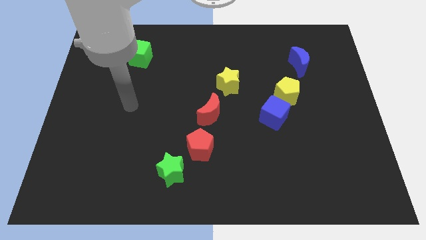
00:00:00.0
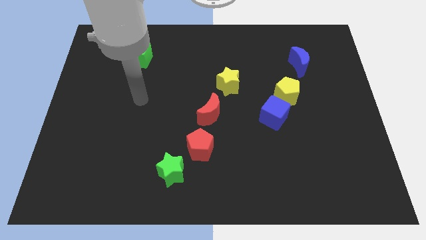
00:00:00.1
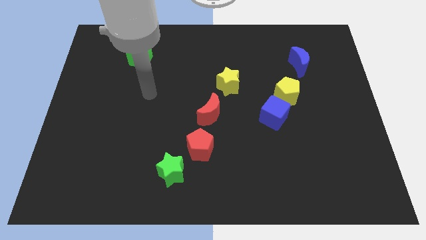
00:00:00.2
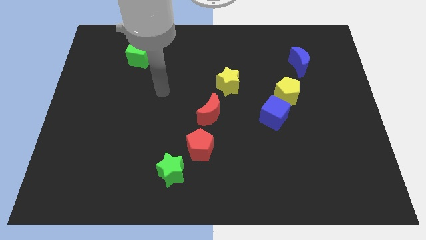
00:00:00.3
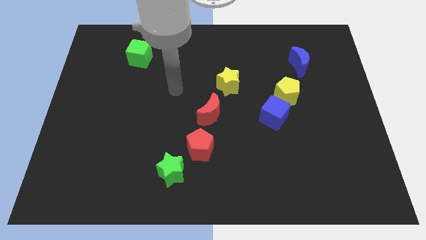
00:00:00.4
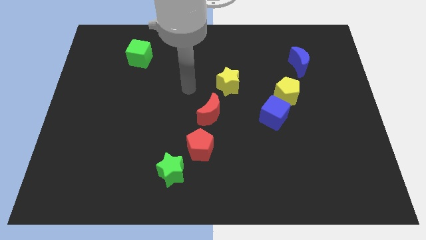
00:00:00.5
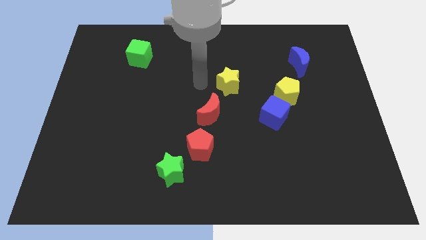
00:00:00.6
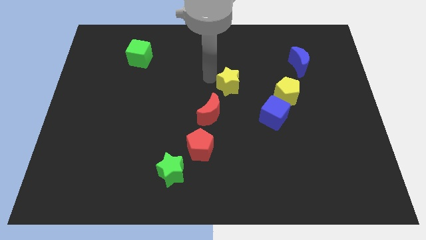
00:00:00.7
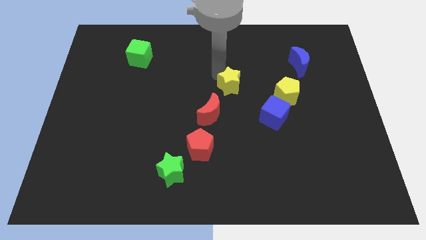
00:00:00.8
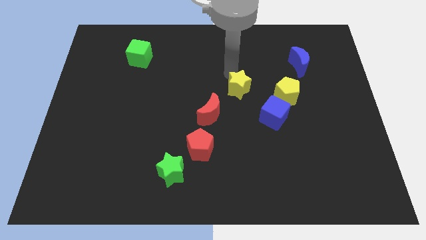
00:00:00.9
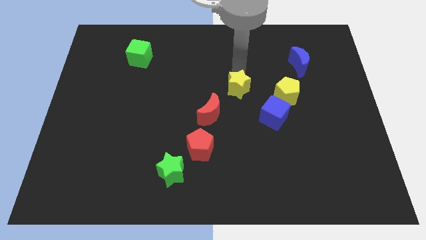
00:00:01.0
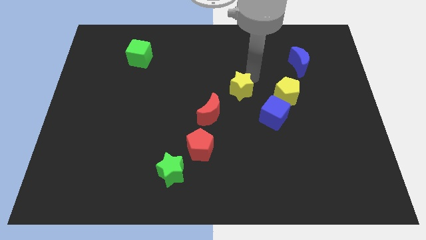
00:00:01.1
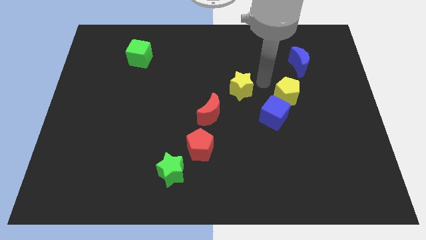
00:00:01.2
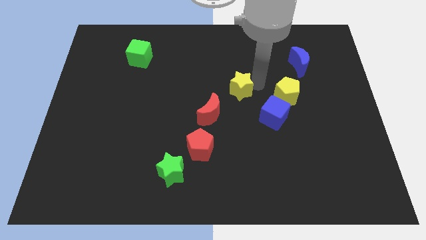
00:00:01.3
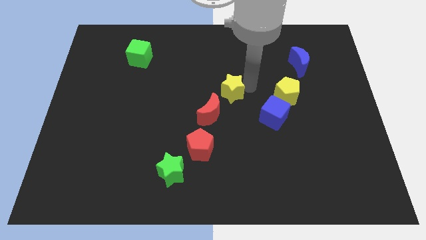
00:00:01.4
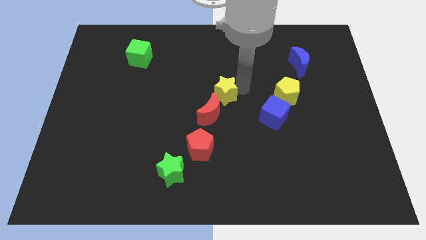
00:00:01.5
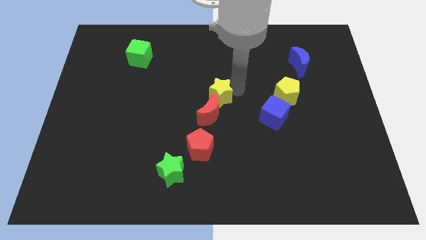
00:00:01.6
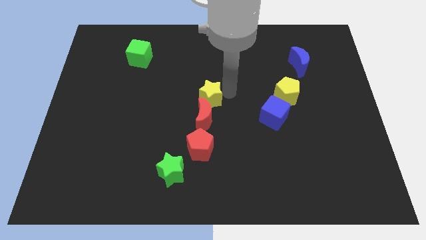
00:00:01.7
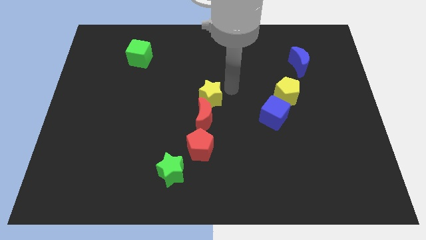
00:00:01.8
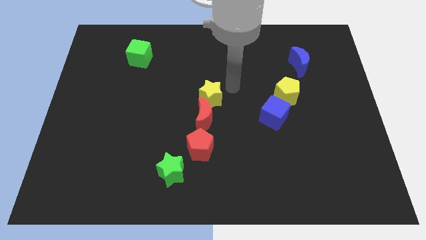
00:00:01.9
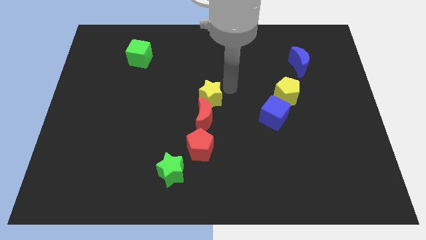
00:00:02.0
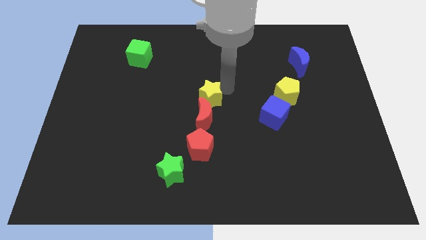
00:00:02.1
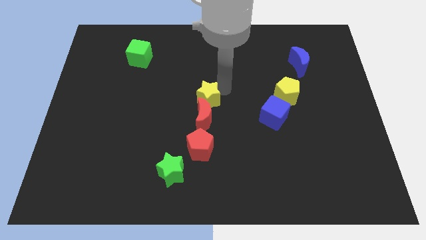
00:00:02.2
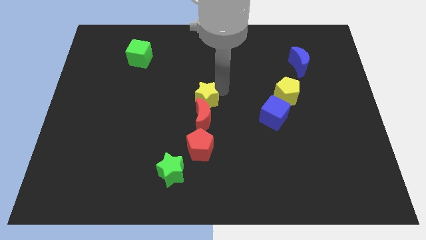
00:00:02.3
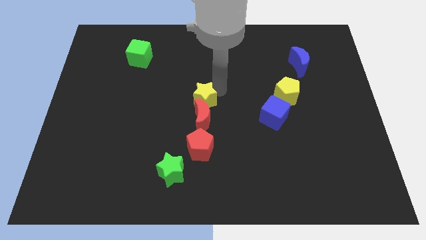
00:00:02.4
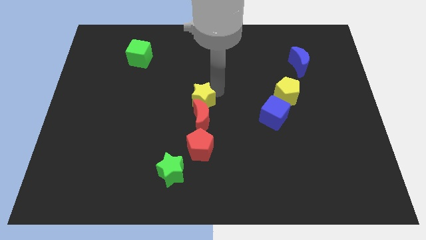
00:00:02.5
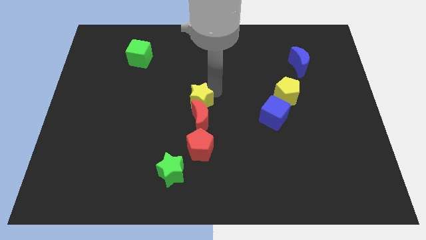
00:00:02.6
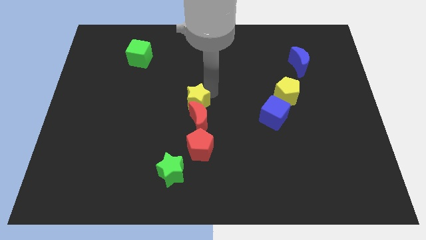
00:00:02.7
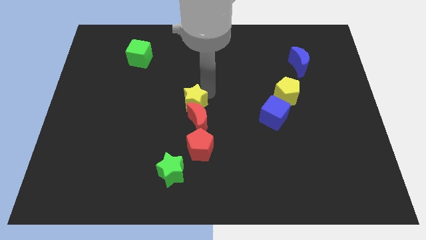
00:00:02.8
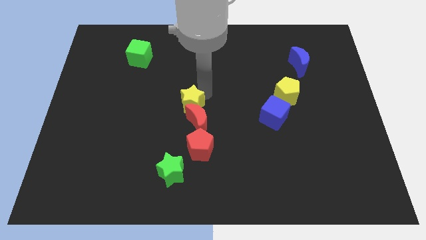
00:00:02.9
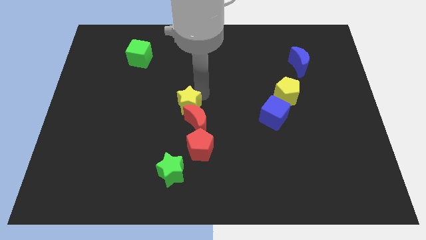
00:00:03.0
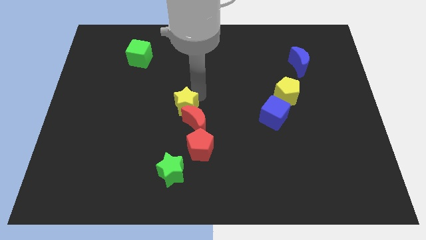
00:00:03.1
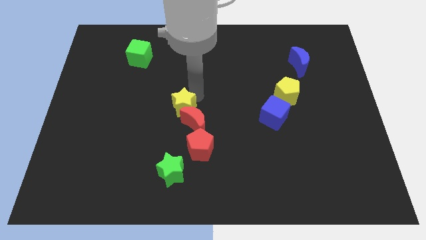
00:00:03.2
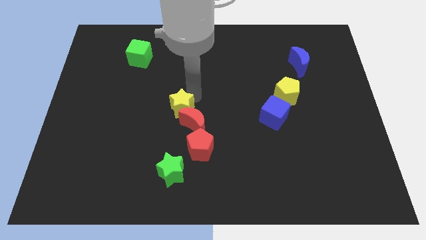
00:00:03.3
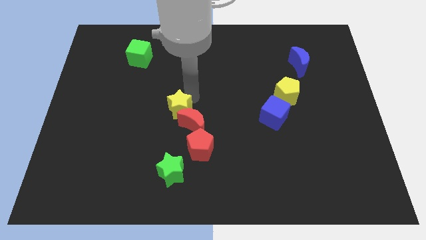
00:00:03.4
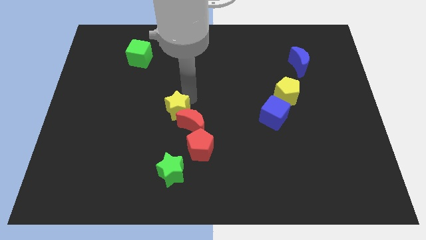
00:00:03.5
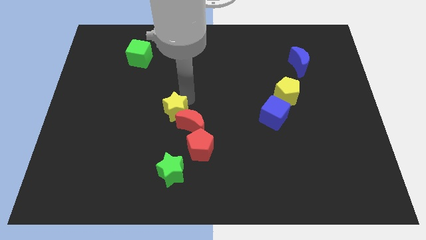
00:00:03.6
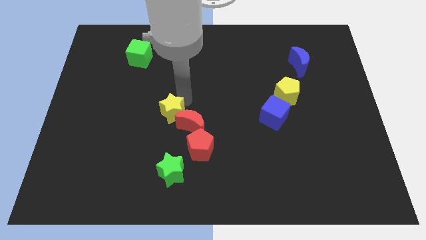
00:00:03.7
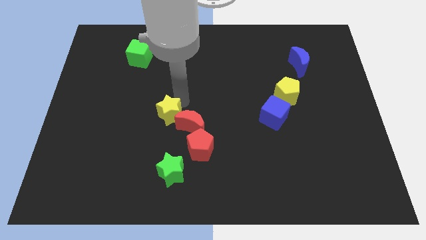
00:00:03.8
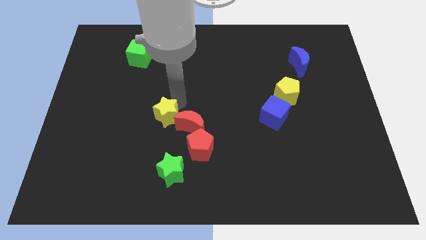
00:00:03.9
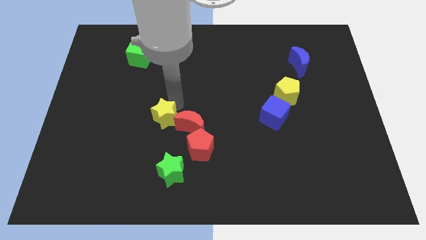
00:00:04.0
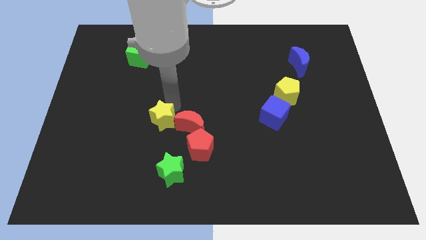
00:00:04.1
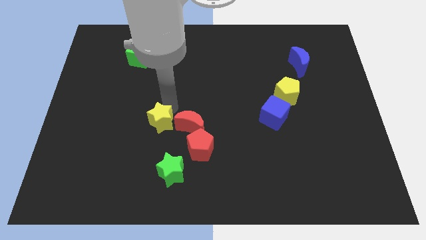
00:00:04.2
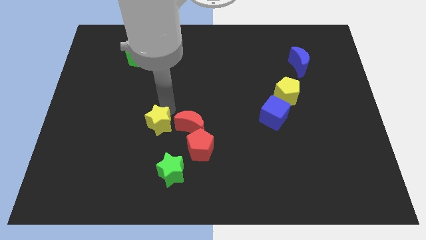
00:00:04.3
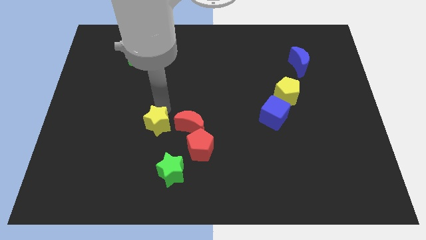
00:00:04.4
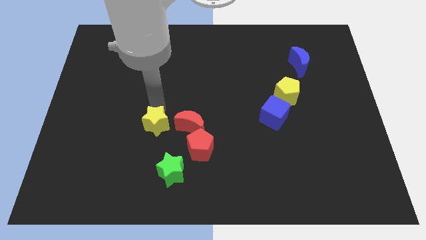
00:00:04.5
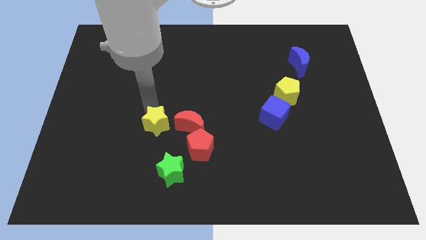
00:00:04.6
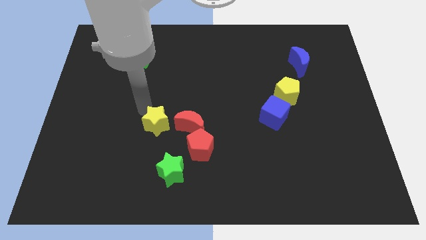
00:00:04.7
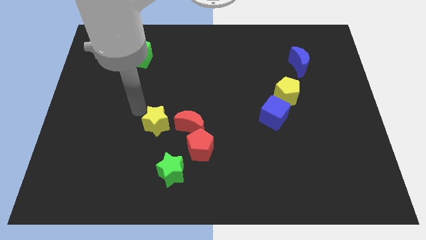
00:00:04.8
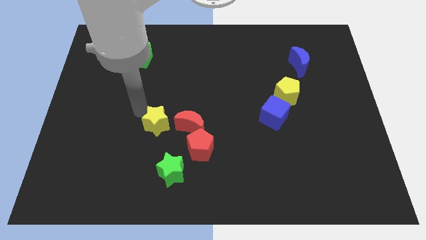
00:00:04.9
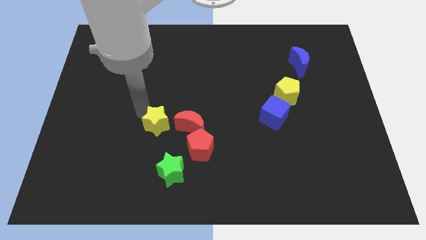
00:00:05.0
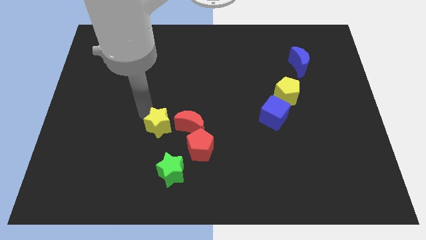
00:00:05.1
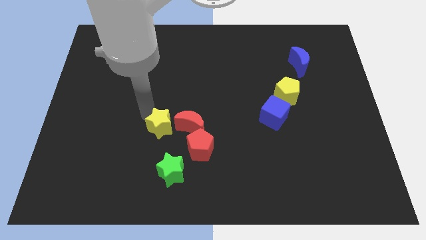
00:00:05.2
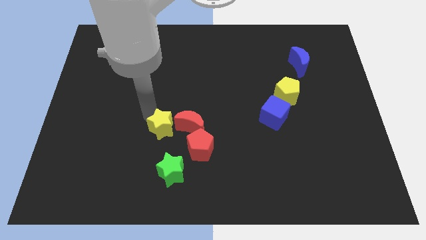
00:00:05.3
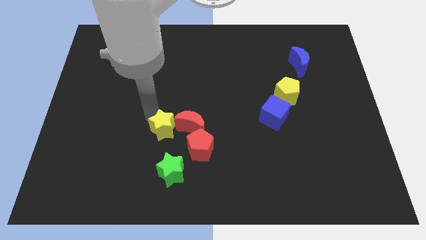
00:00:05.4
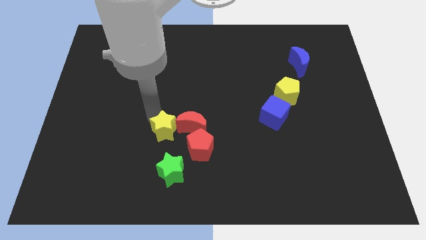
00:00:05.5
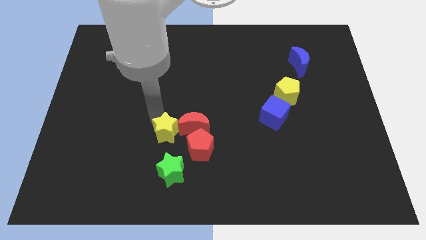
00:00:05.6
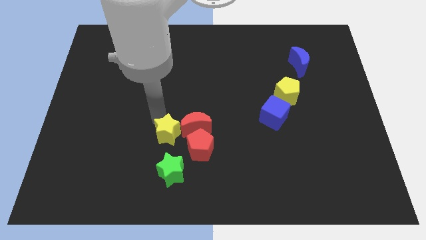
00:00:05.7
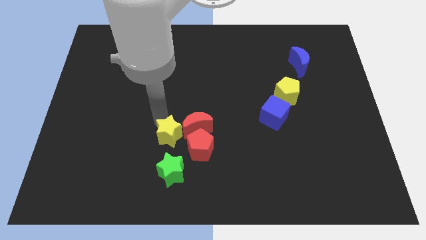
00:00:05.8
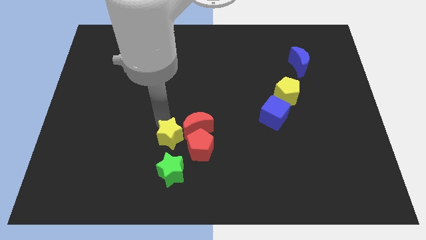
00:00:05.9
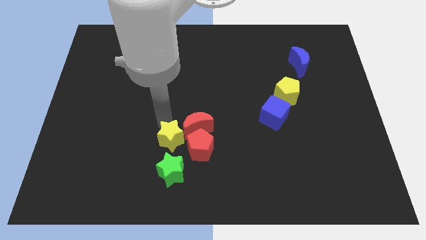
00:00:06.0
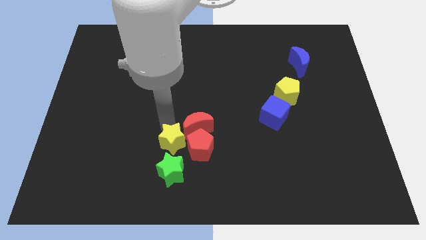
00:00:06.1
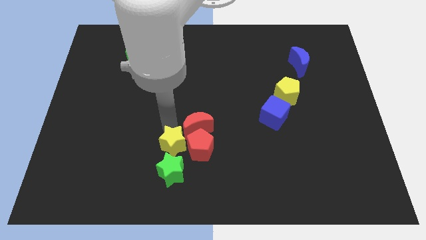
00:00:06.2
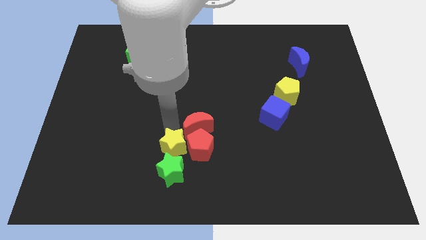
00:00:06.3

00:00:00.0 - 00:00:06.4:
push the yellow star next to the green star

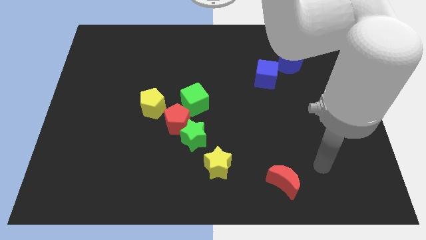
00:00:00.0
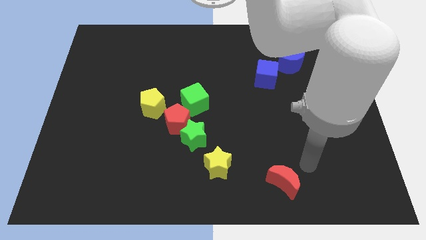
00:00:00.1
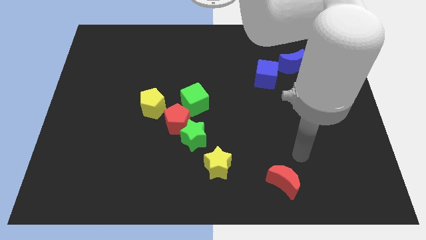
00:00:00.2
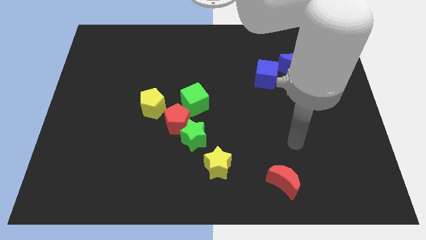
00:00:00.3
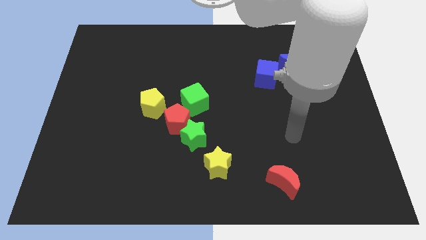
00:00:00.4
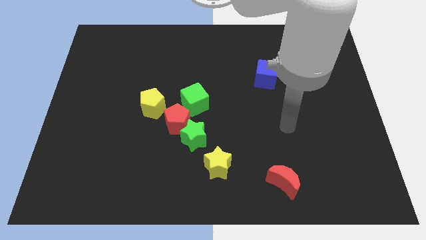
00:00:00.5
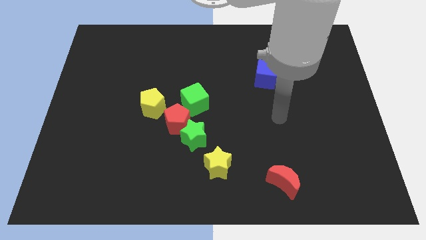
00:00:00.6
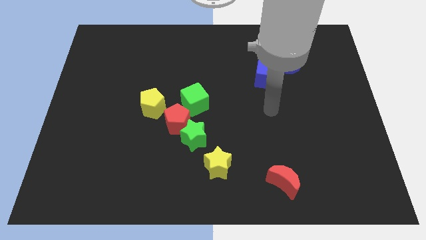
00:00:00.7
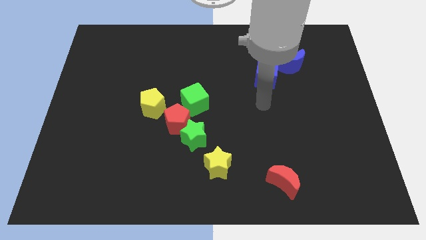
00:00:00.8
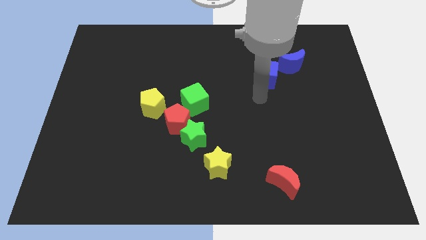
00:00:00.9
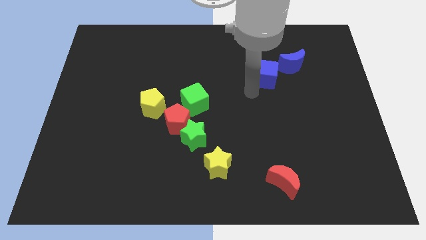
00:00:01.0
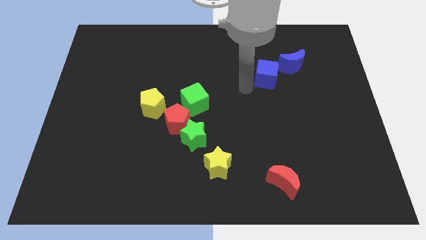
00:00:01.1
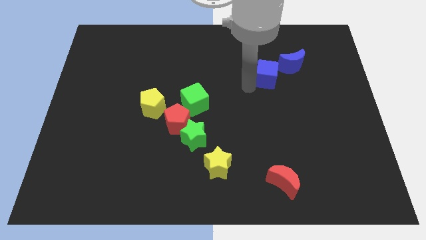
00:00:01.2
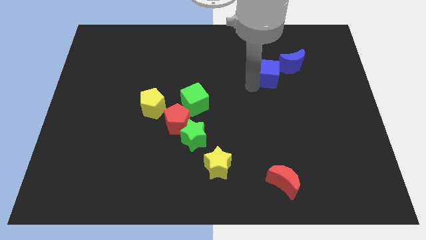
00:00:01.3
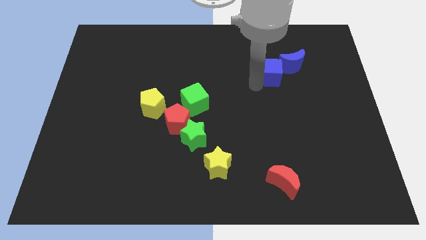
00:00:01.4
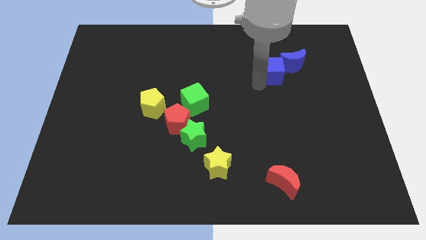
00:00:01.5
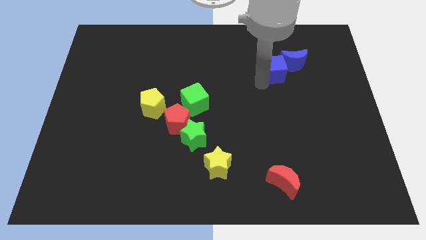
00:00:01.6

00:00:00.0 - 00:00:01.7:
push the blue cube to the blue moon
